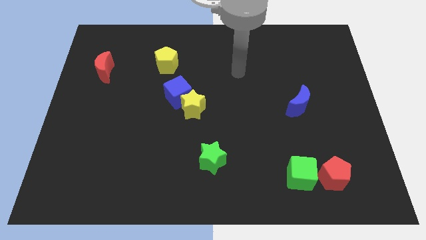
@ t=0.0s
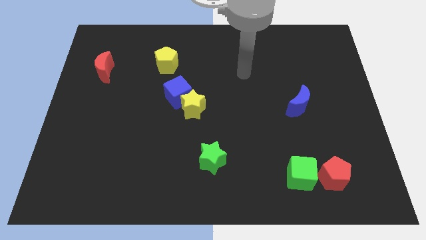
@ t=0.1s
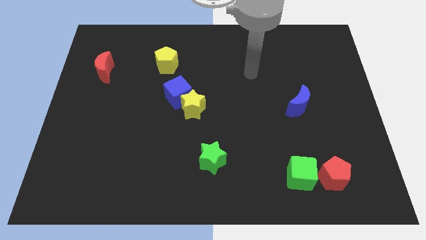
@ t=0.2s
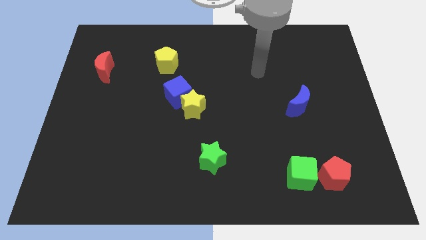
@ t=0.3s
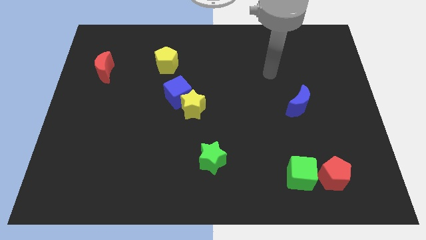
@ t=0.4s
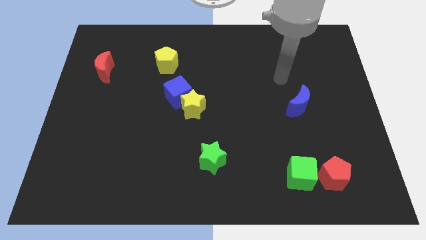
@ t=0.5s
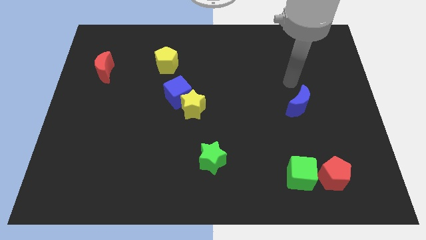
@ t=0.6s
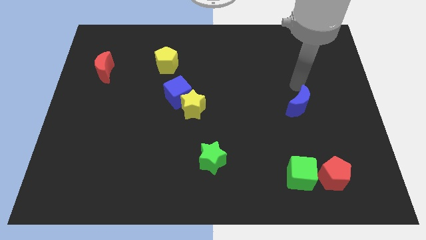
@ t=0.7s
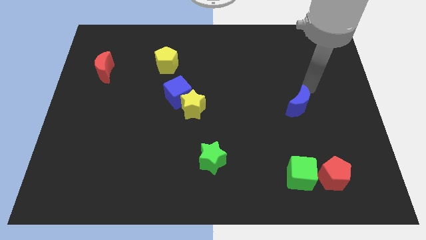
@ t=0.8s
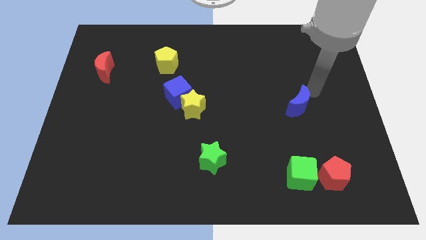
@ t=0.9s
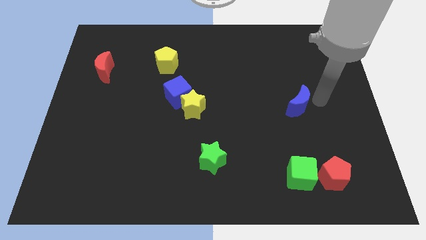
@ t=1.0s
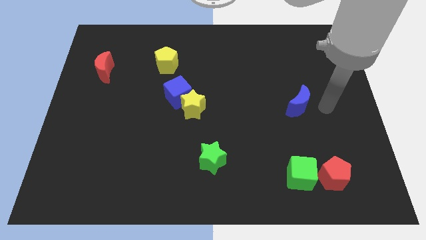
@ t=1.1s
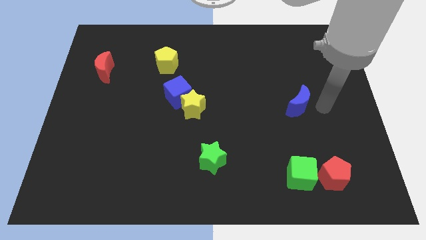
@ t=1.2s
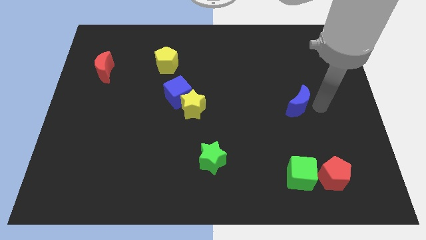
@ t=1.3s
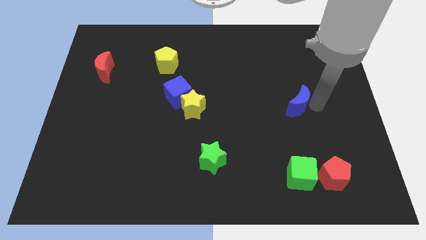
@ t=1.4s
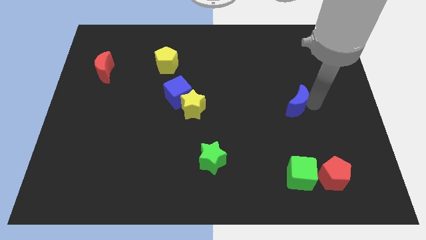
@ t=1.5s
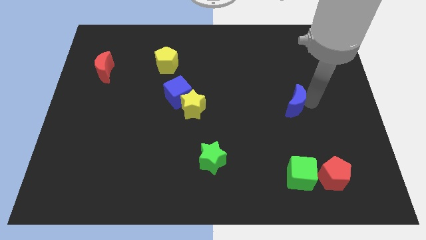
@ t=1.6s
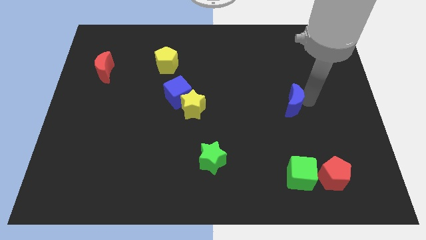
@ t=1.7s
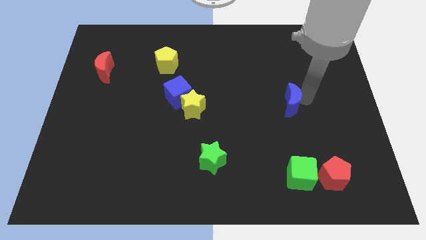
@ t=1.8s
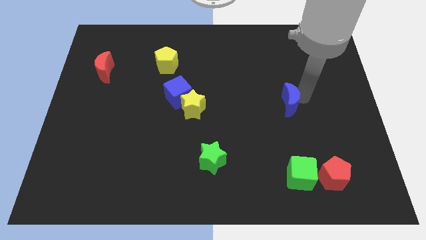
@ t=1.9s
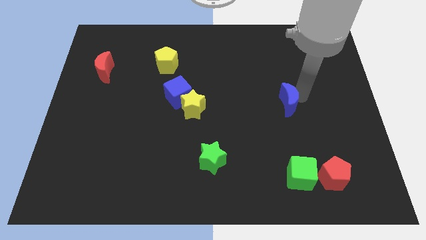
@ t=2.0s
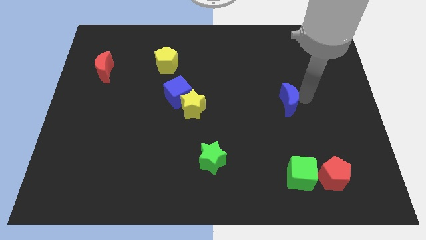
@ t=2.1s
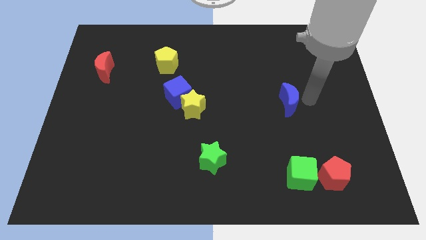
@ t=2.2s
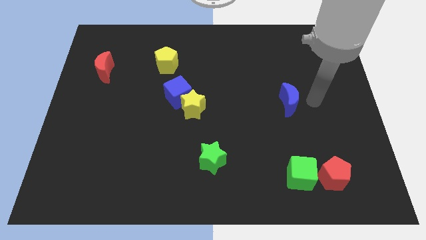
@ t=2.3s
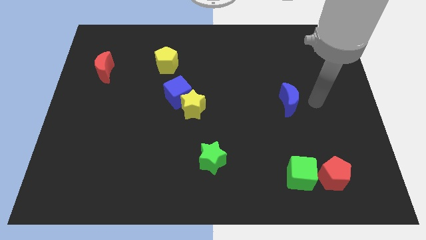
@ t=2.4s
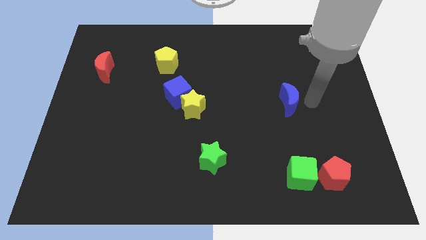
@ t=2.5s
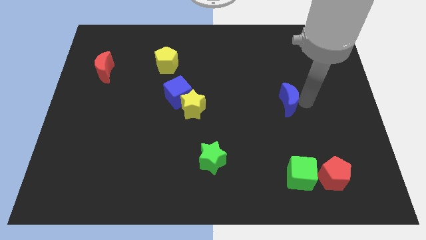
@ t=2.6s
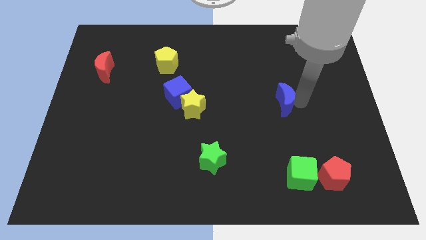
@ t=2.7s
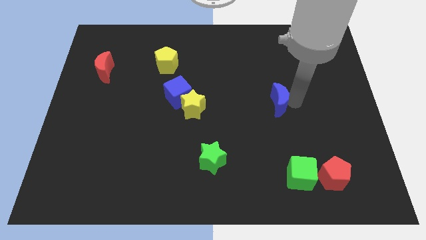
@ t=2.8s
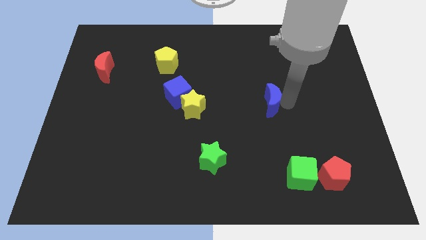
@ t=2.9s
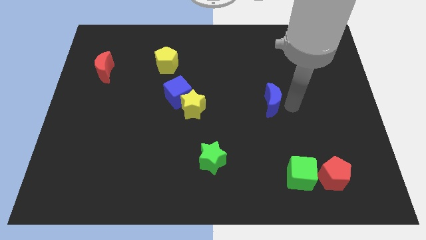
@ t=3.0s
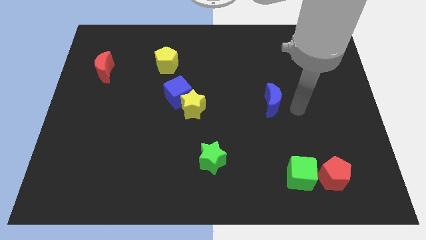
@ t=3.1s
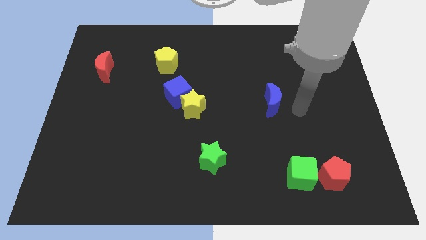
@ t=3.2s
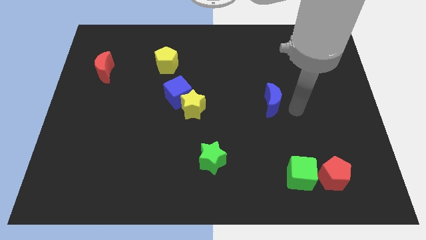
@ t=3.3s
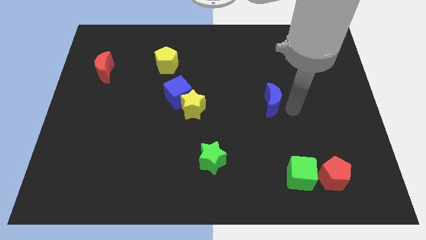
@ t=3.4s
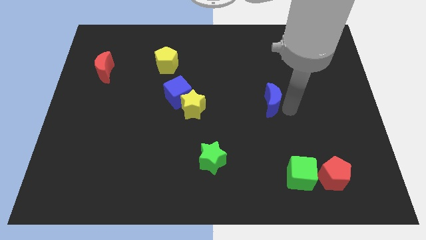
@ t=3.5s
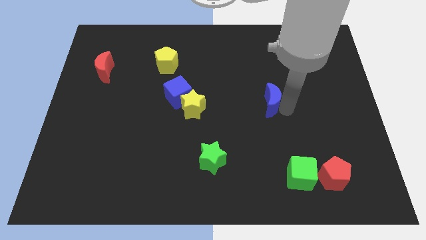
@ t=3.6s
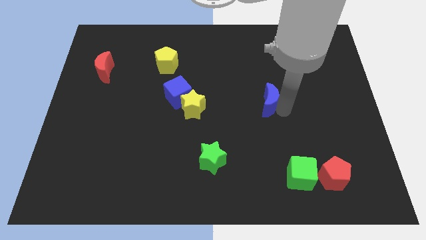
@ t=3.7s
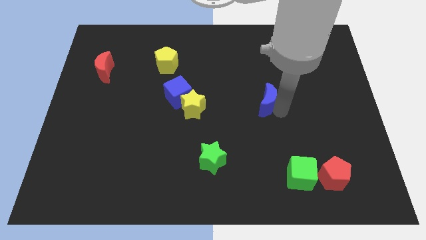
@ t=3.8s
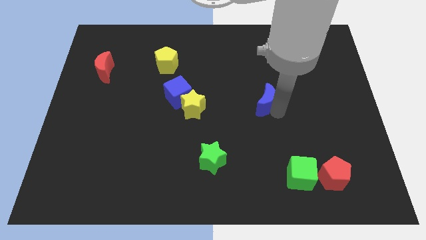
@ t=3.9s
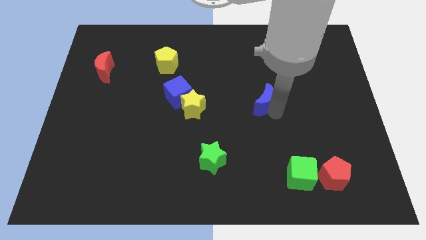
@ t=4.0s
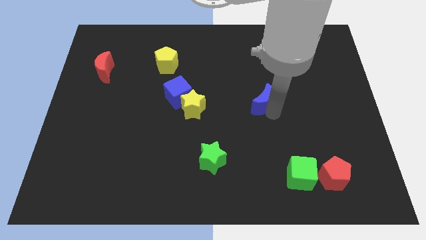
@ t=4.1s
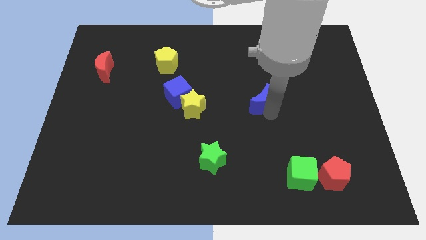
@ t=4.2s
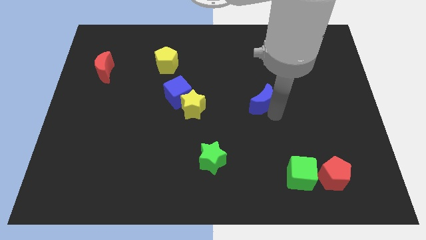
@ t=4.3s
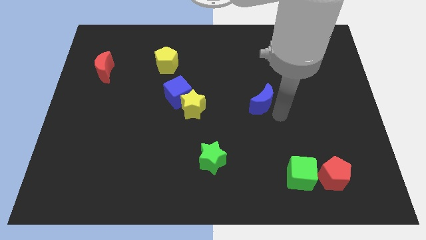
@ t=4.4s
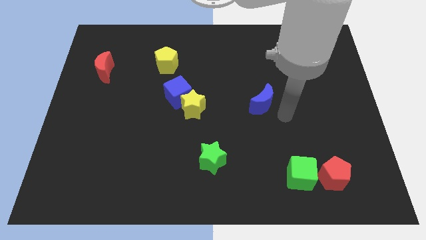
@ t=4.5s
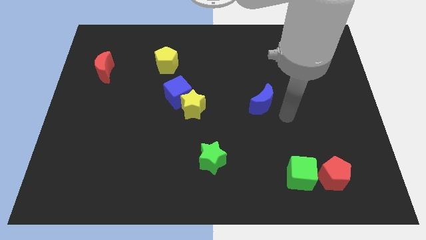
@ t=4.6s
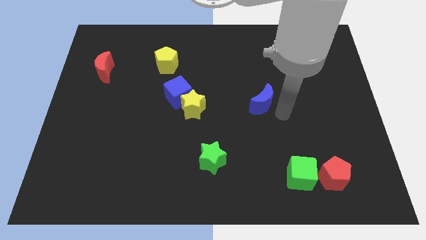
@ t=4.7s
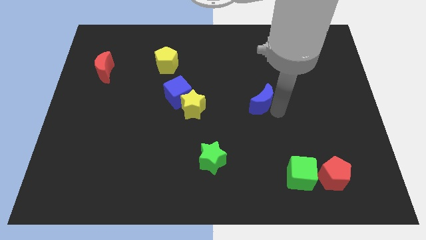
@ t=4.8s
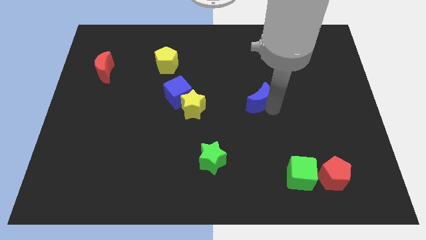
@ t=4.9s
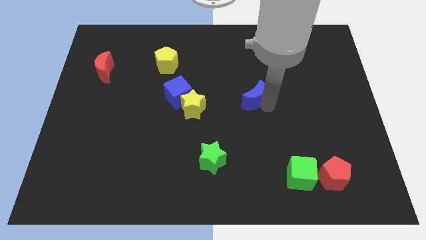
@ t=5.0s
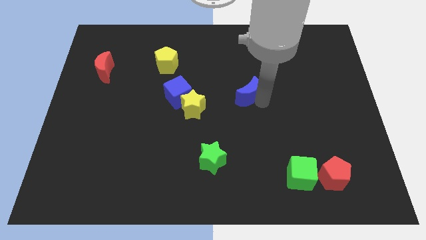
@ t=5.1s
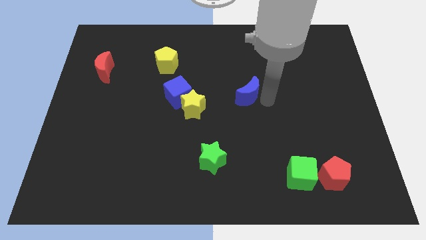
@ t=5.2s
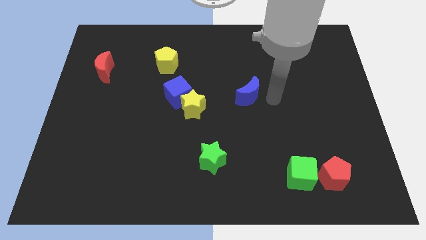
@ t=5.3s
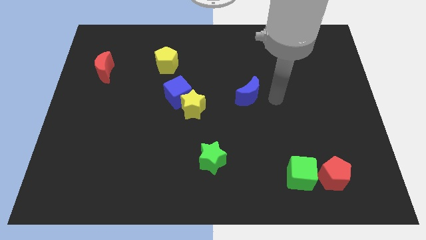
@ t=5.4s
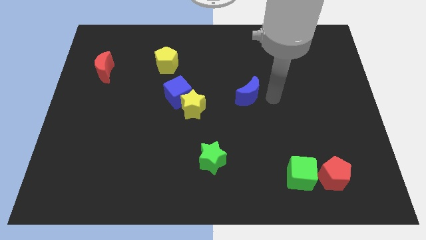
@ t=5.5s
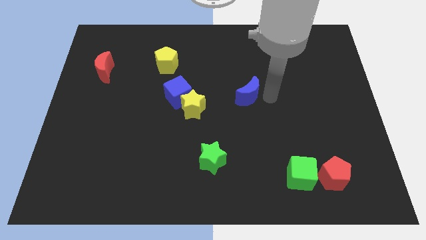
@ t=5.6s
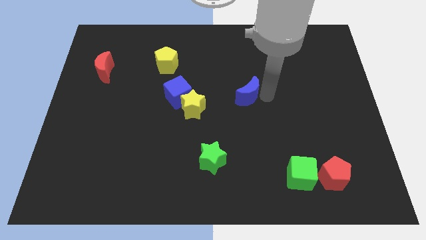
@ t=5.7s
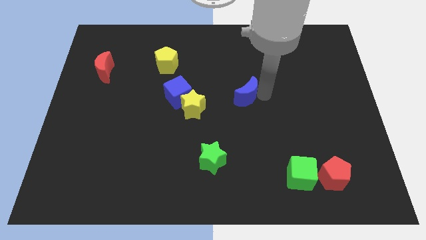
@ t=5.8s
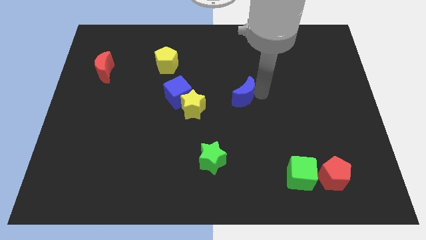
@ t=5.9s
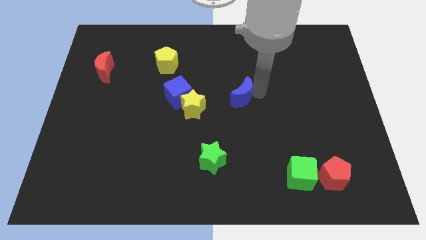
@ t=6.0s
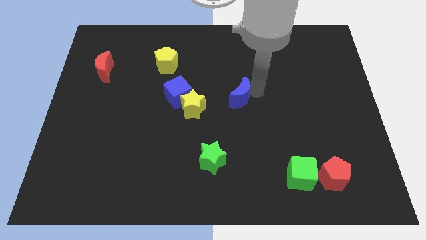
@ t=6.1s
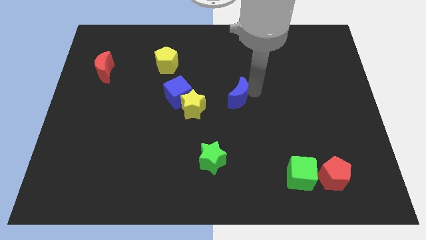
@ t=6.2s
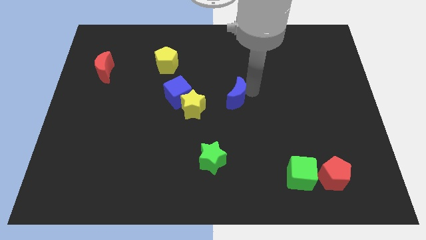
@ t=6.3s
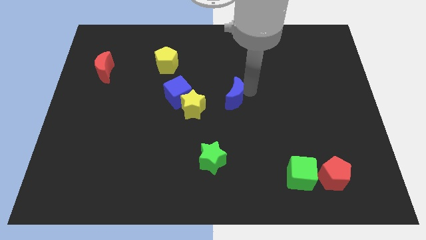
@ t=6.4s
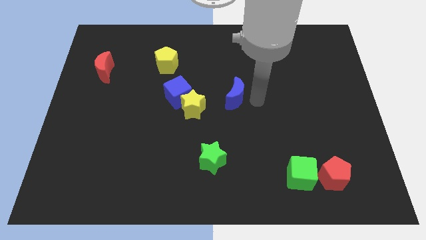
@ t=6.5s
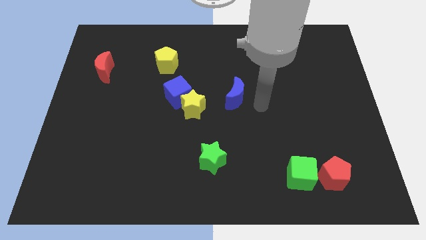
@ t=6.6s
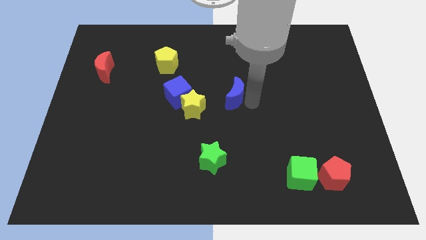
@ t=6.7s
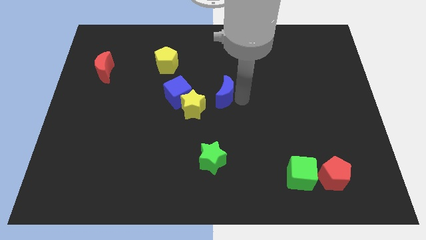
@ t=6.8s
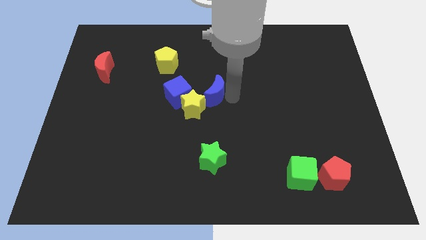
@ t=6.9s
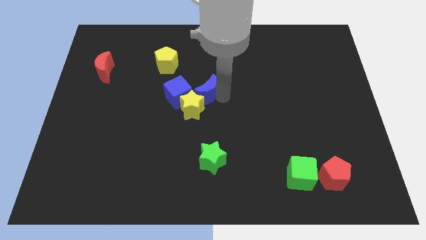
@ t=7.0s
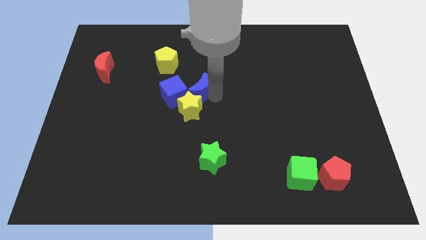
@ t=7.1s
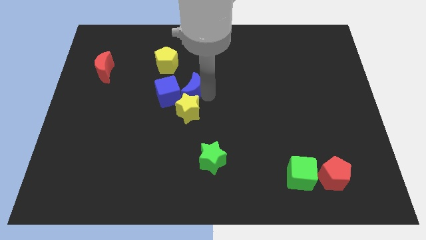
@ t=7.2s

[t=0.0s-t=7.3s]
push the blue moon diagonally down and to the right of the yellow pentagon
